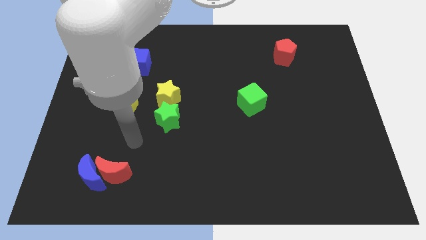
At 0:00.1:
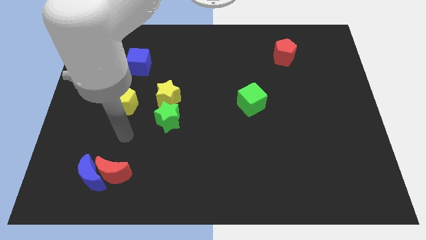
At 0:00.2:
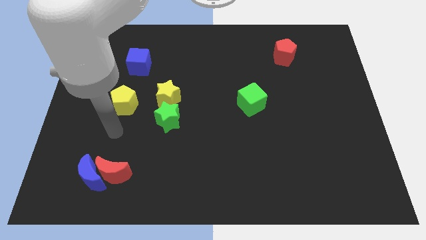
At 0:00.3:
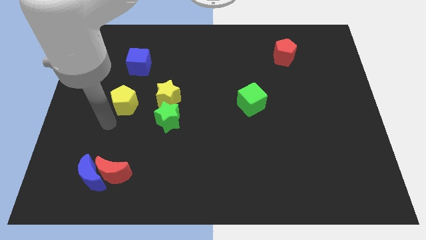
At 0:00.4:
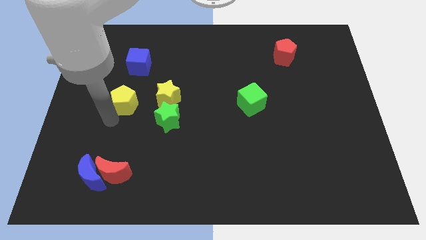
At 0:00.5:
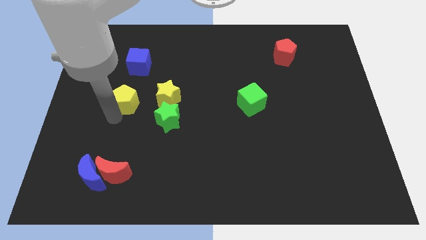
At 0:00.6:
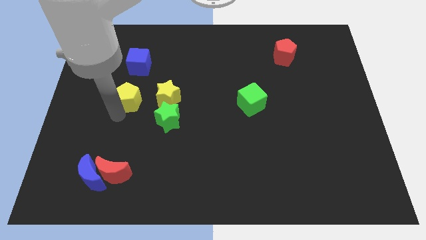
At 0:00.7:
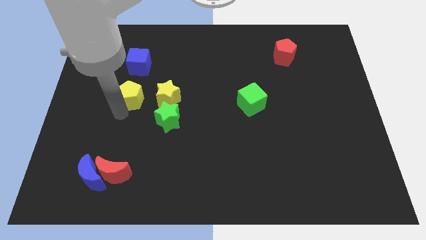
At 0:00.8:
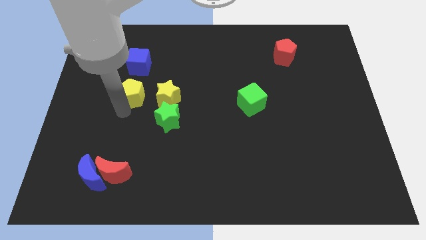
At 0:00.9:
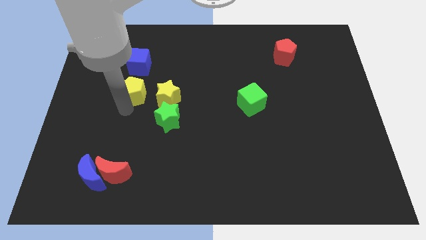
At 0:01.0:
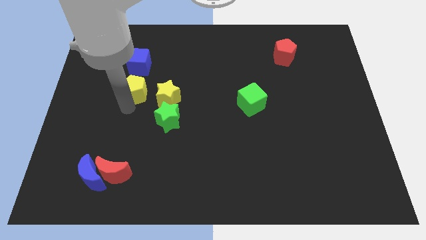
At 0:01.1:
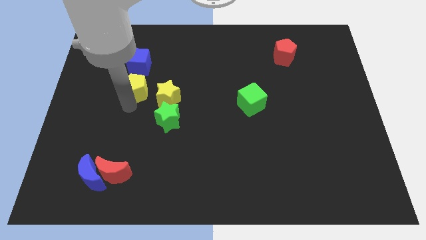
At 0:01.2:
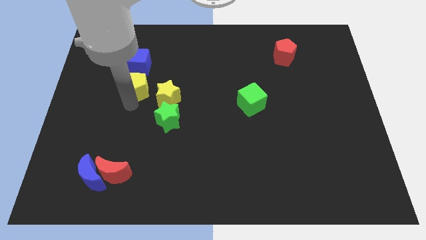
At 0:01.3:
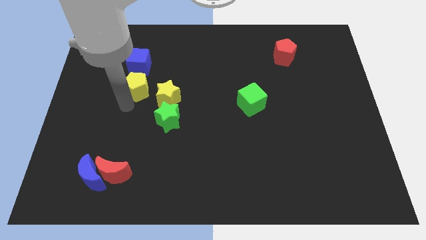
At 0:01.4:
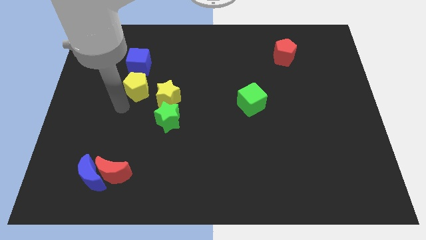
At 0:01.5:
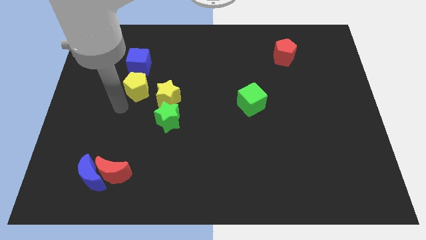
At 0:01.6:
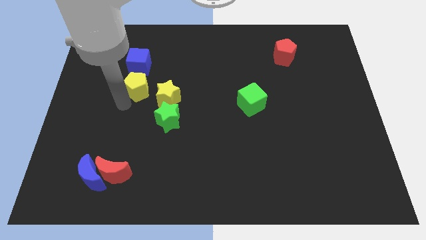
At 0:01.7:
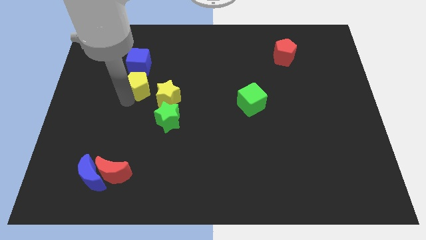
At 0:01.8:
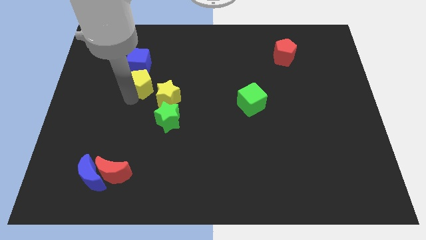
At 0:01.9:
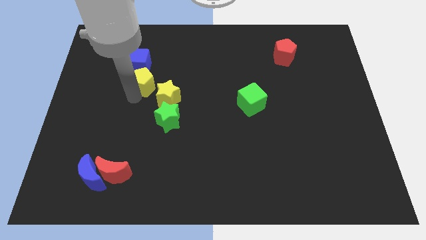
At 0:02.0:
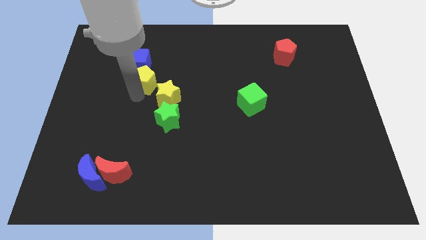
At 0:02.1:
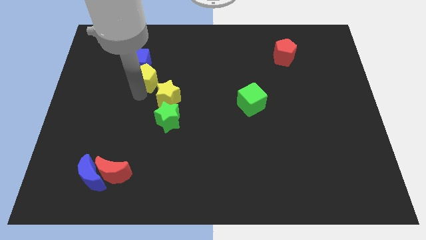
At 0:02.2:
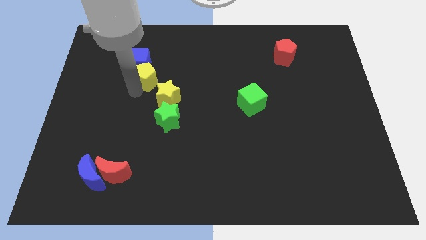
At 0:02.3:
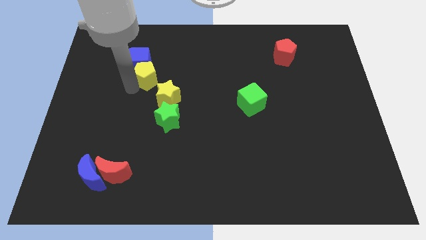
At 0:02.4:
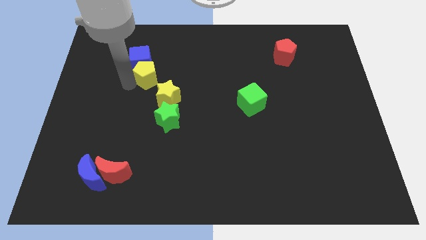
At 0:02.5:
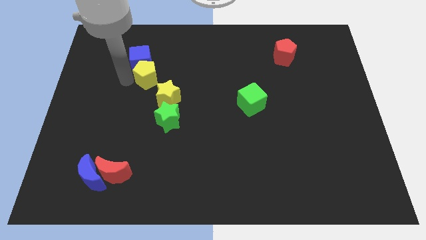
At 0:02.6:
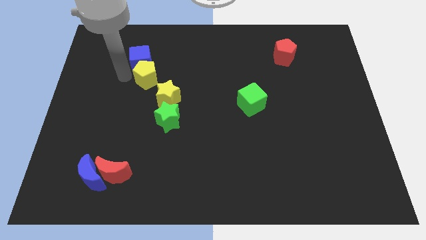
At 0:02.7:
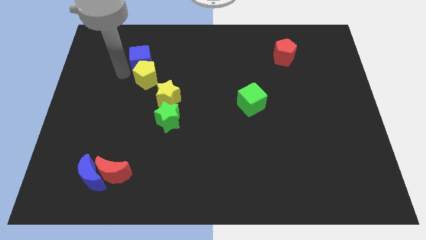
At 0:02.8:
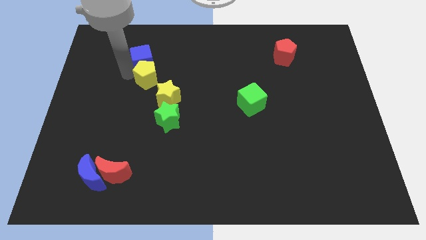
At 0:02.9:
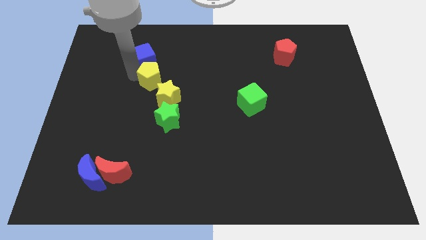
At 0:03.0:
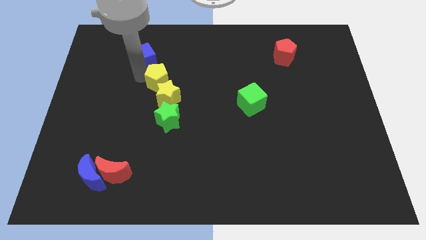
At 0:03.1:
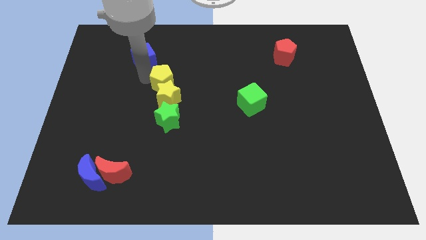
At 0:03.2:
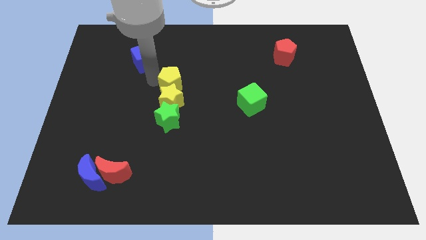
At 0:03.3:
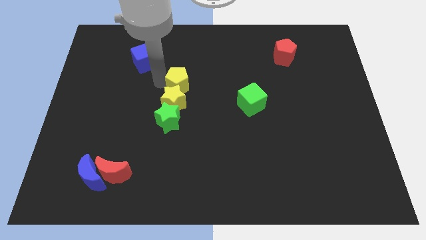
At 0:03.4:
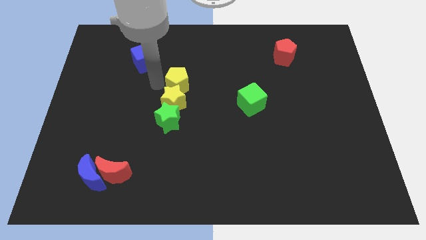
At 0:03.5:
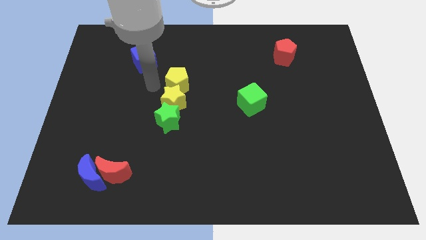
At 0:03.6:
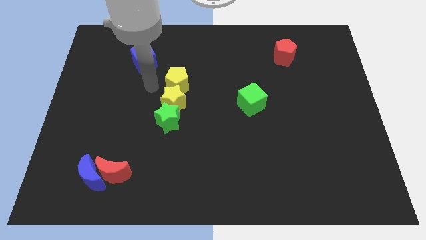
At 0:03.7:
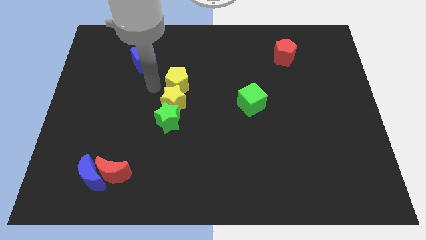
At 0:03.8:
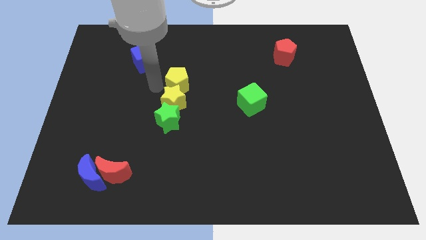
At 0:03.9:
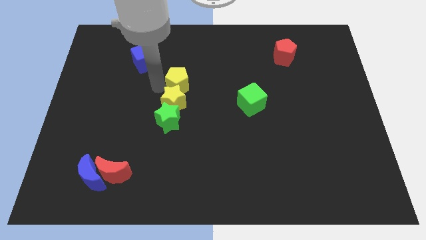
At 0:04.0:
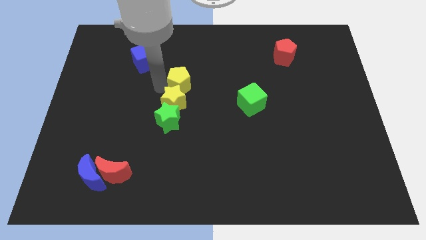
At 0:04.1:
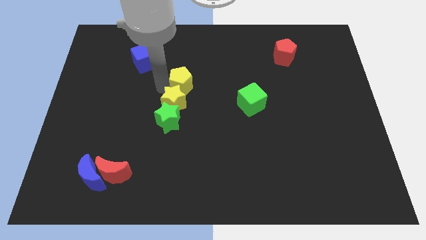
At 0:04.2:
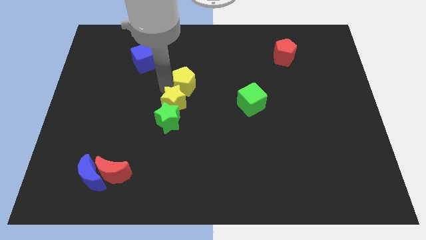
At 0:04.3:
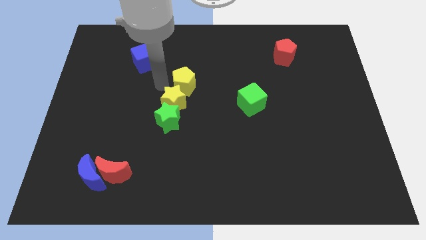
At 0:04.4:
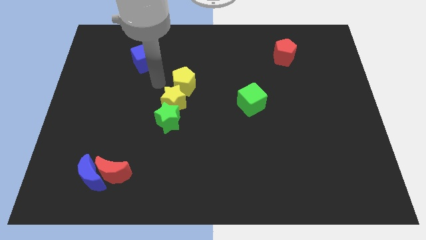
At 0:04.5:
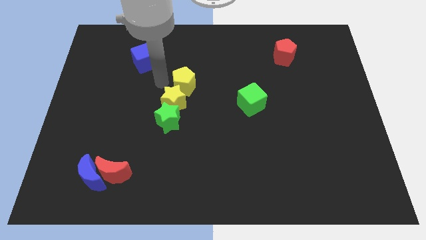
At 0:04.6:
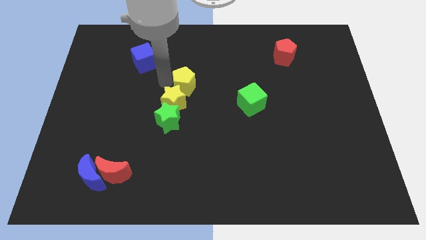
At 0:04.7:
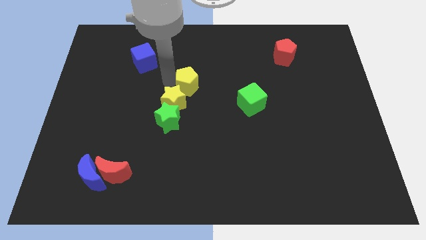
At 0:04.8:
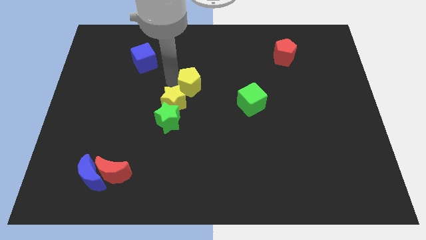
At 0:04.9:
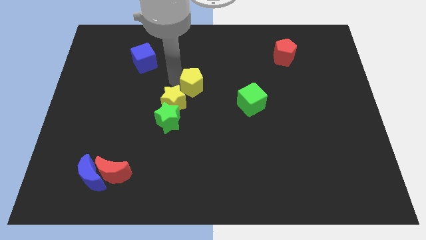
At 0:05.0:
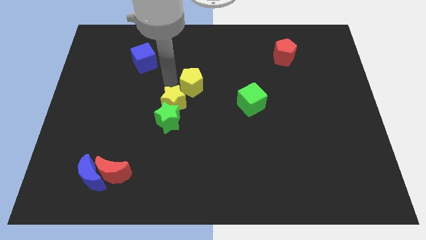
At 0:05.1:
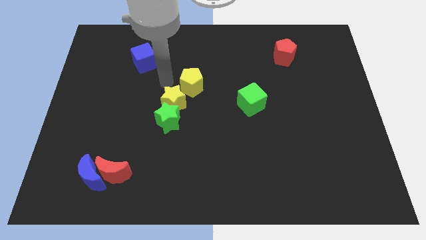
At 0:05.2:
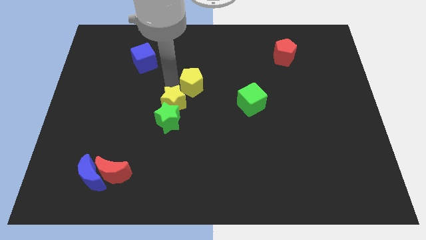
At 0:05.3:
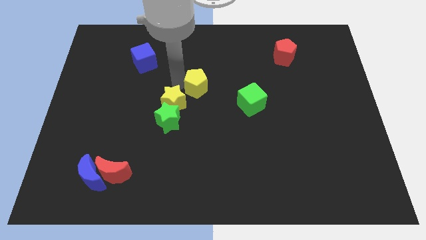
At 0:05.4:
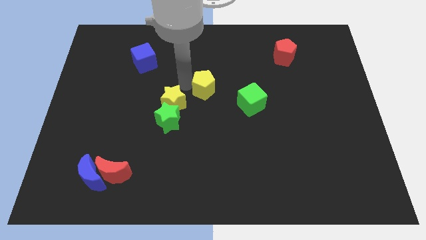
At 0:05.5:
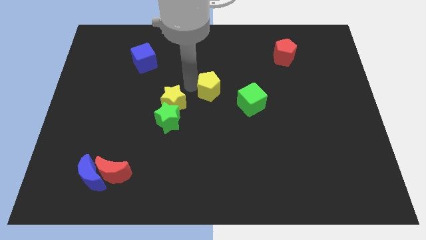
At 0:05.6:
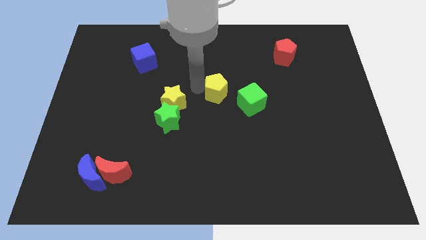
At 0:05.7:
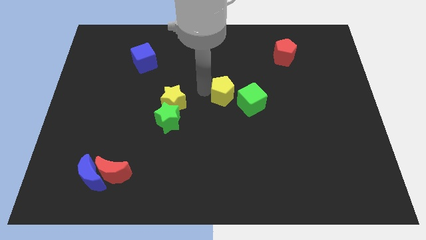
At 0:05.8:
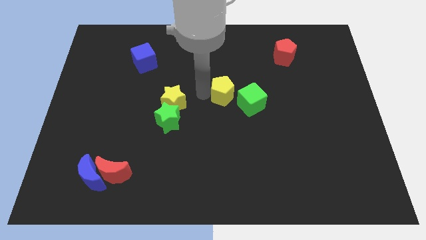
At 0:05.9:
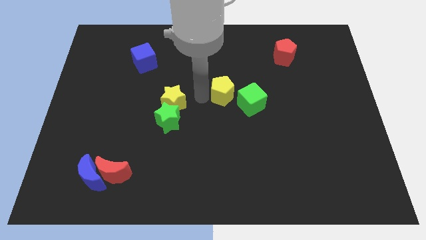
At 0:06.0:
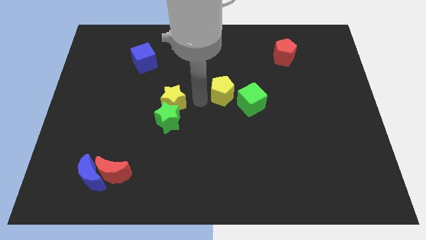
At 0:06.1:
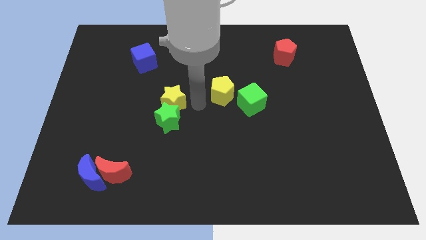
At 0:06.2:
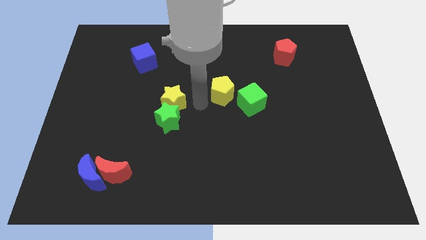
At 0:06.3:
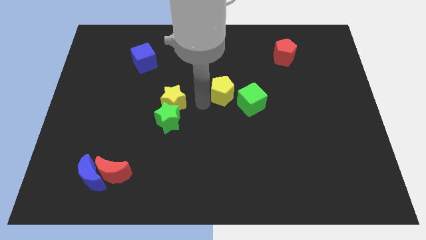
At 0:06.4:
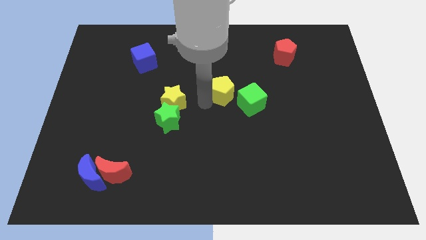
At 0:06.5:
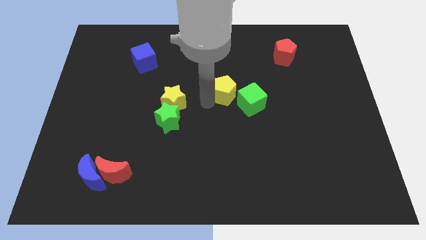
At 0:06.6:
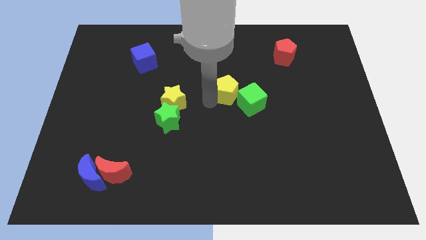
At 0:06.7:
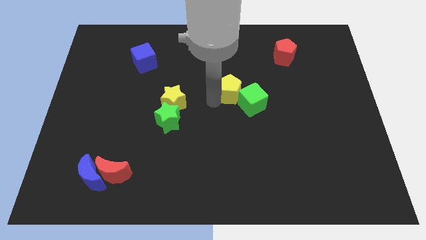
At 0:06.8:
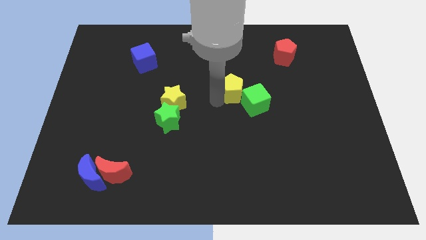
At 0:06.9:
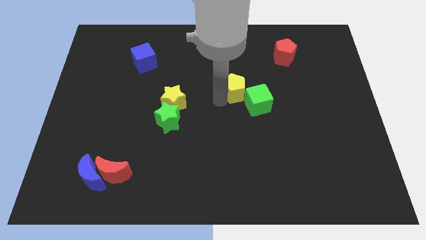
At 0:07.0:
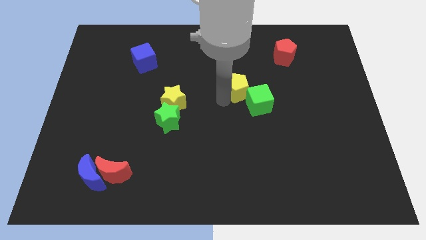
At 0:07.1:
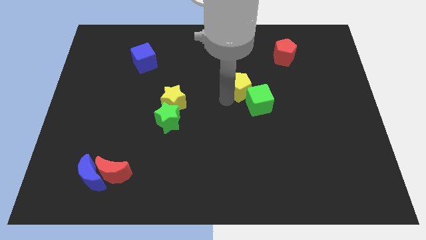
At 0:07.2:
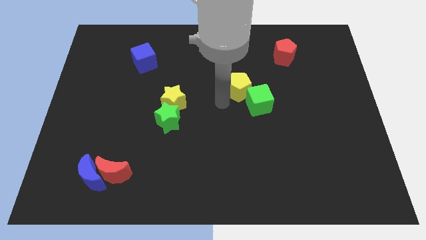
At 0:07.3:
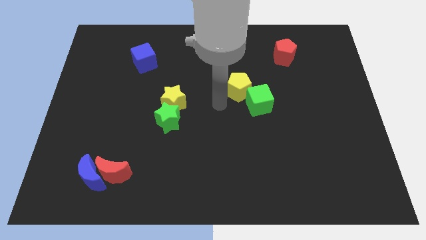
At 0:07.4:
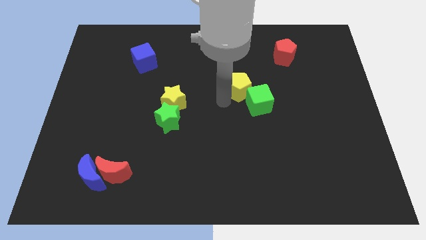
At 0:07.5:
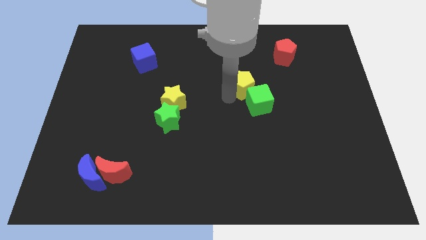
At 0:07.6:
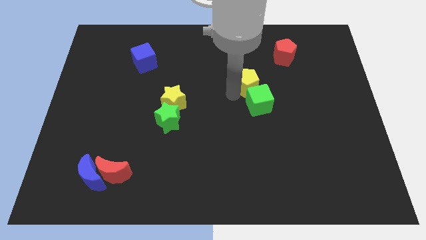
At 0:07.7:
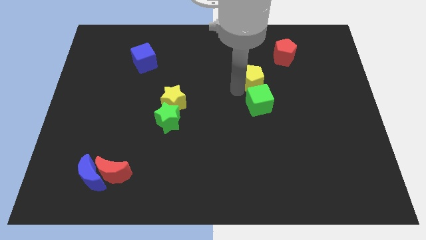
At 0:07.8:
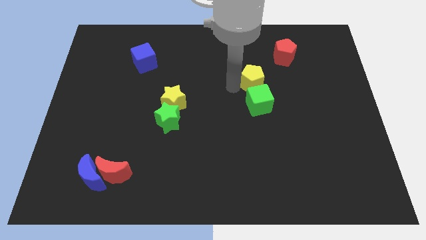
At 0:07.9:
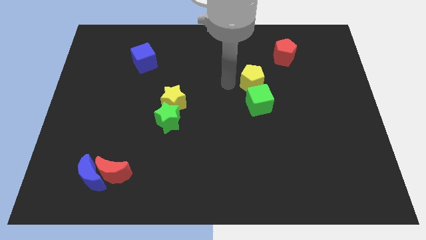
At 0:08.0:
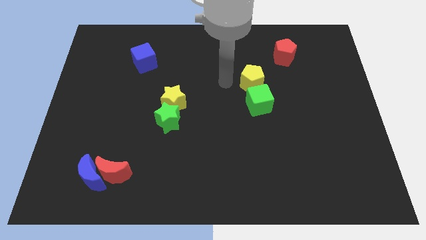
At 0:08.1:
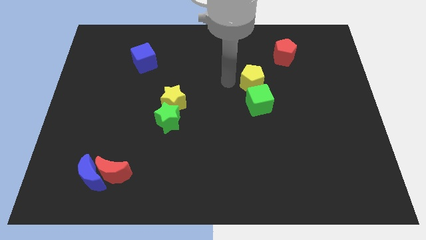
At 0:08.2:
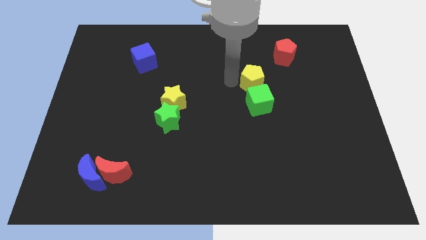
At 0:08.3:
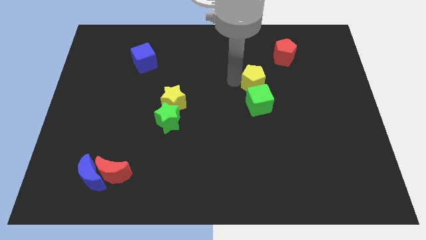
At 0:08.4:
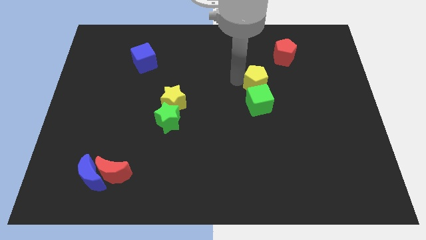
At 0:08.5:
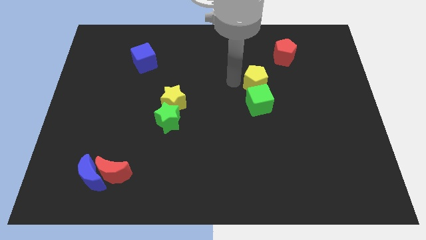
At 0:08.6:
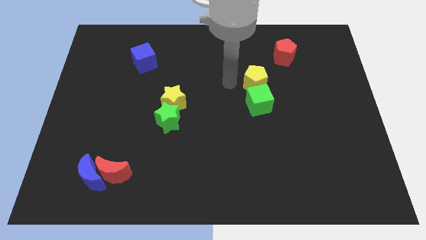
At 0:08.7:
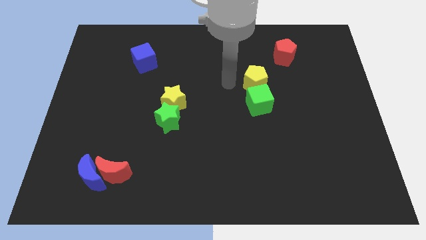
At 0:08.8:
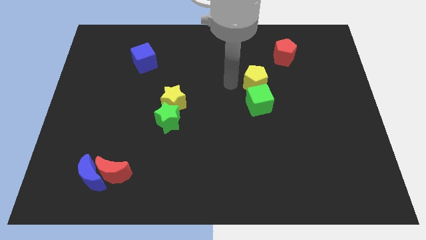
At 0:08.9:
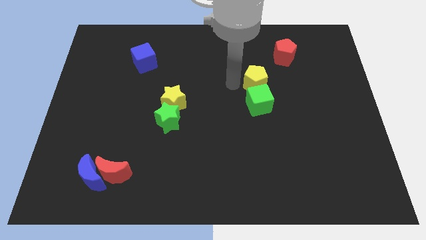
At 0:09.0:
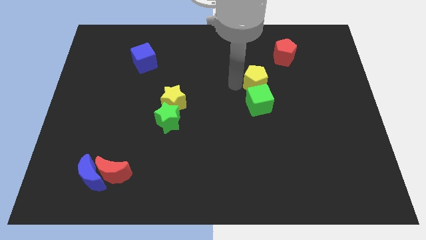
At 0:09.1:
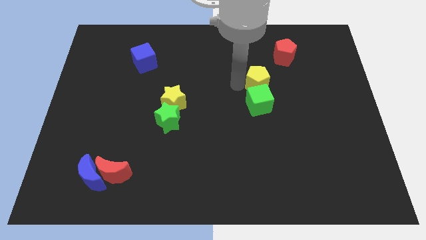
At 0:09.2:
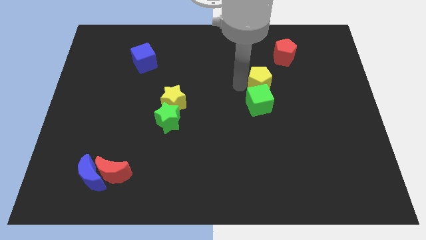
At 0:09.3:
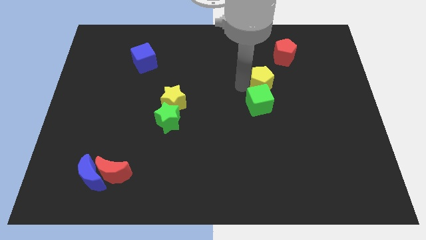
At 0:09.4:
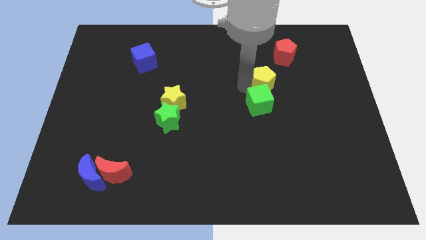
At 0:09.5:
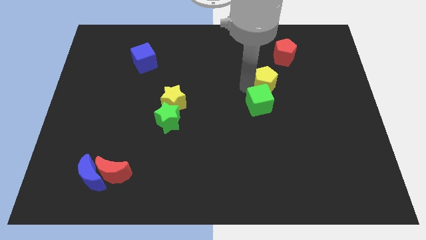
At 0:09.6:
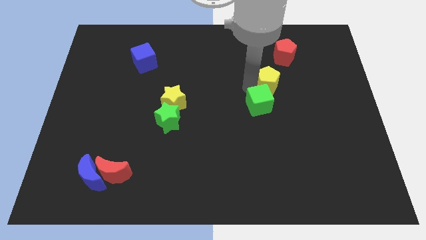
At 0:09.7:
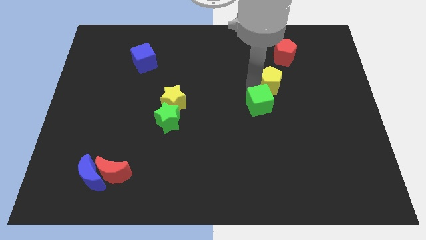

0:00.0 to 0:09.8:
slide the yellow pentagon below the red pentagon
